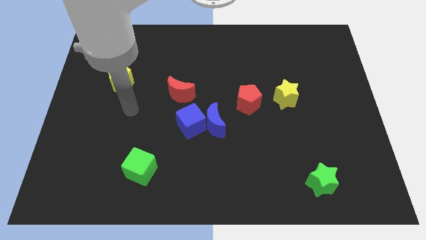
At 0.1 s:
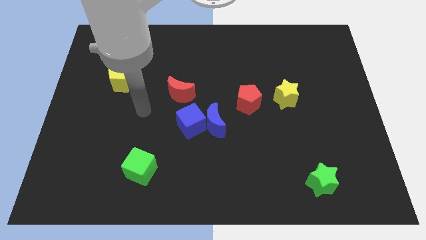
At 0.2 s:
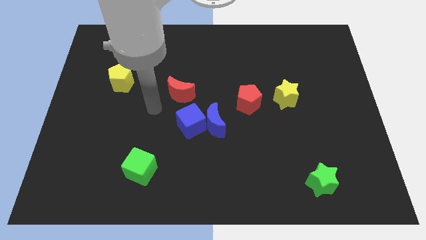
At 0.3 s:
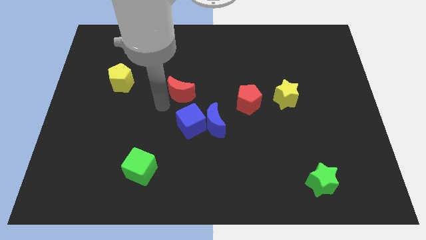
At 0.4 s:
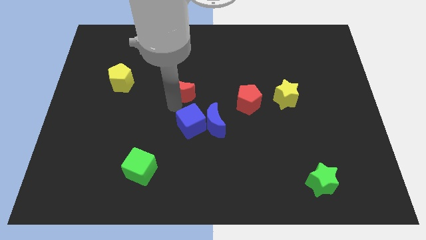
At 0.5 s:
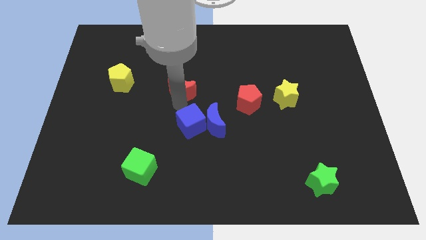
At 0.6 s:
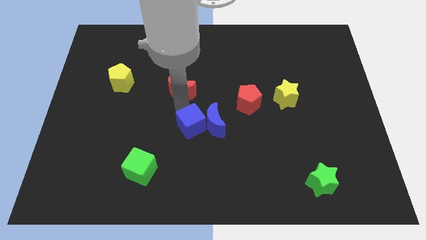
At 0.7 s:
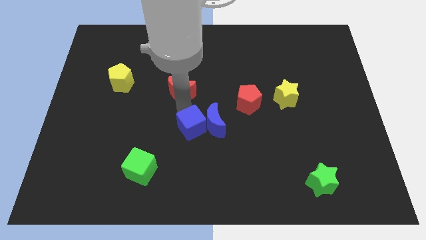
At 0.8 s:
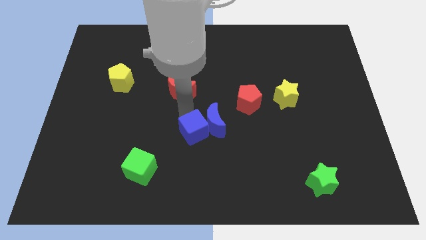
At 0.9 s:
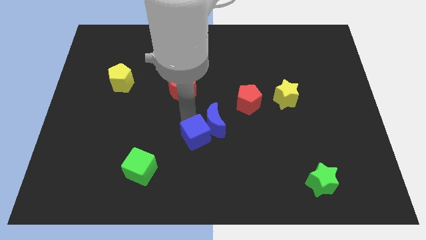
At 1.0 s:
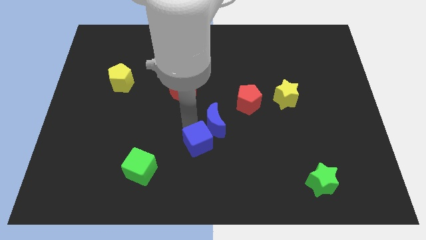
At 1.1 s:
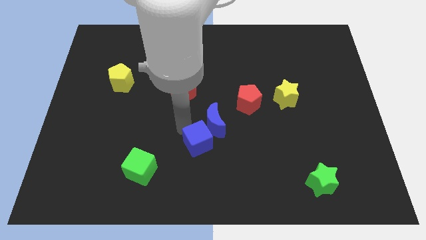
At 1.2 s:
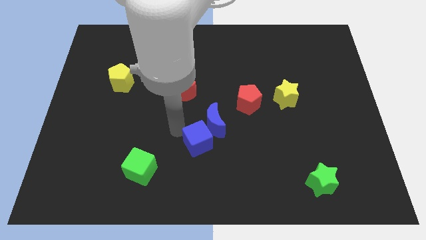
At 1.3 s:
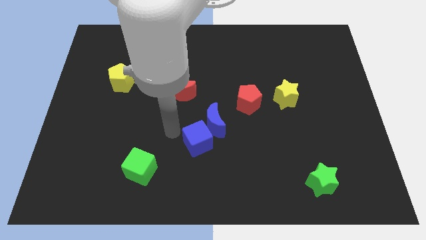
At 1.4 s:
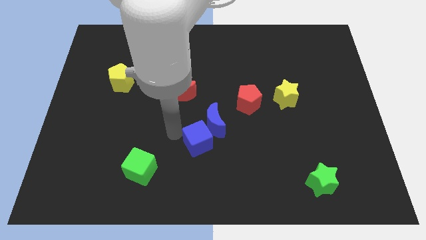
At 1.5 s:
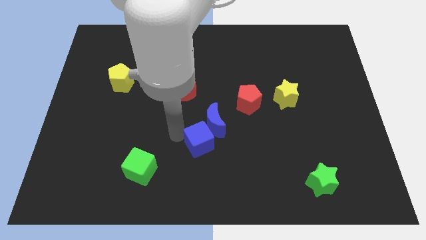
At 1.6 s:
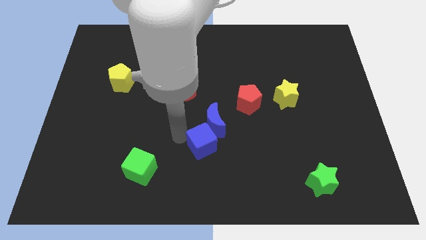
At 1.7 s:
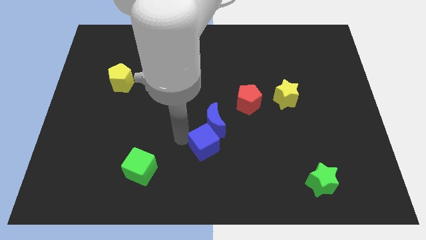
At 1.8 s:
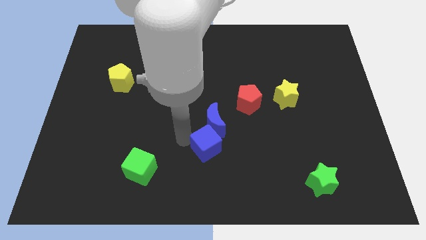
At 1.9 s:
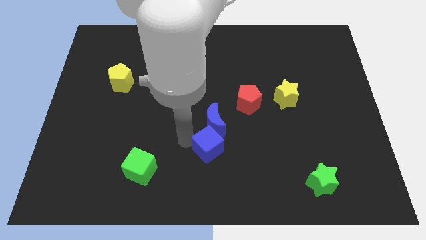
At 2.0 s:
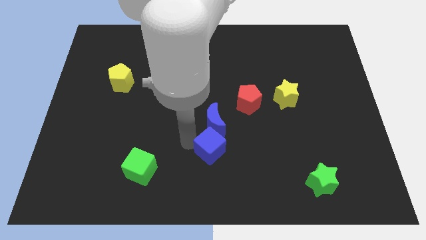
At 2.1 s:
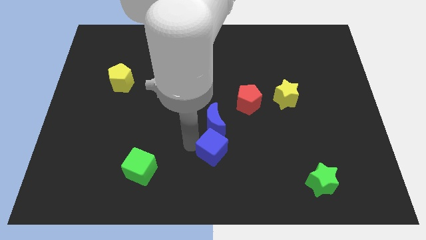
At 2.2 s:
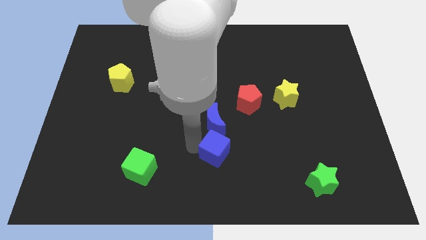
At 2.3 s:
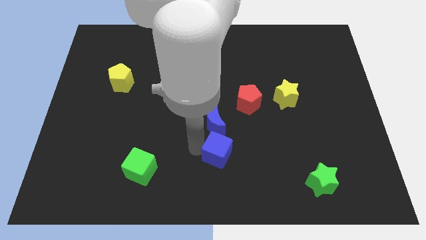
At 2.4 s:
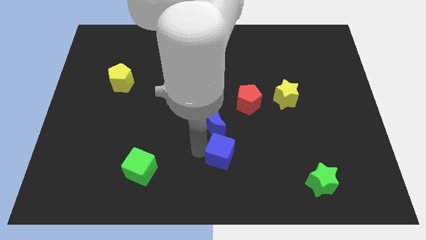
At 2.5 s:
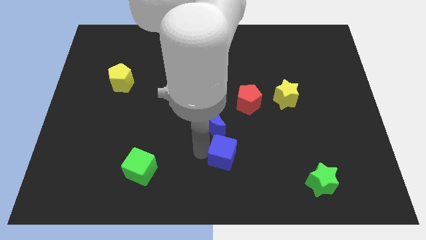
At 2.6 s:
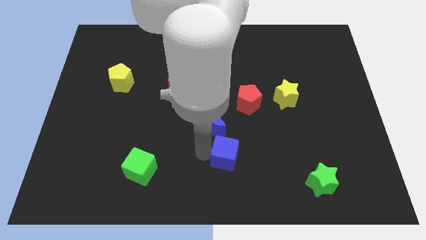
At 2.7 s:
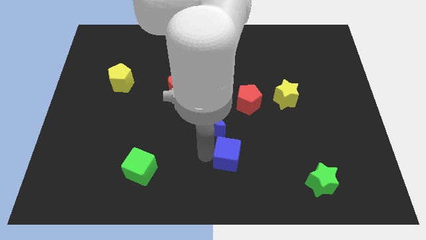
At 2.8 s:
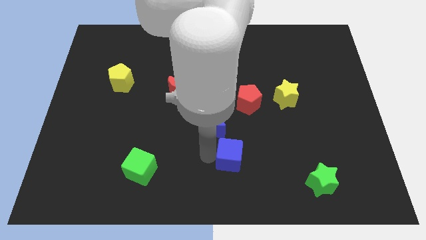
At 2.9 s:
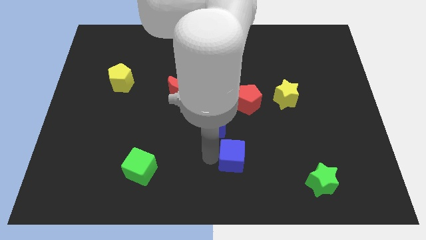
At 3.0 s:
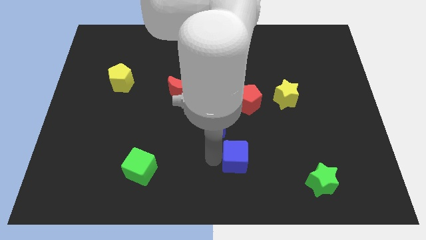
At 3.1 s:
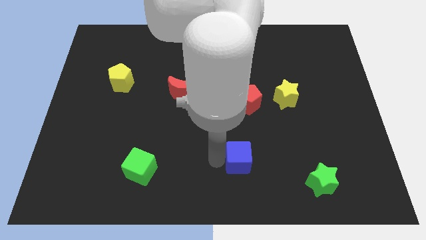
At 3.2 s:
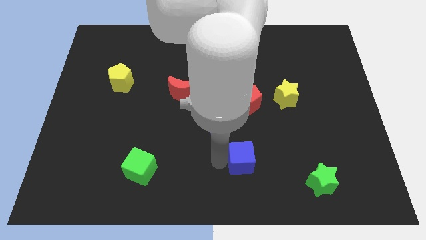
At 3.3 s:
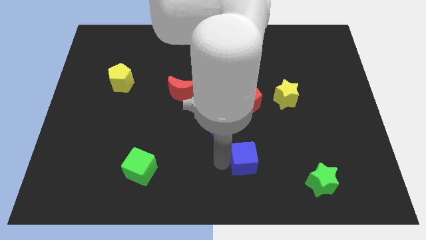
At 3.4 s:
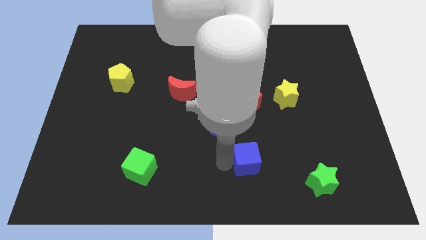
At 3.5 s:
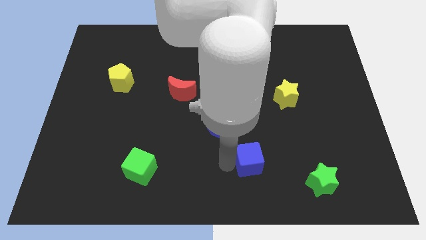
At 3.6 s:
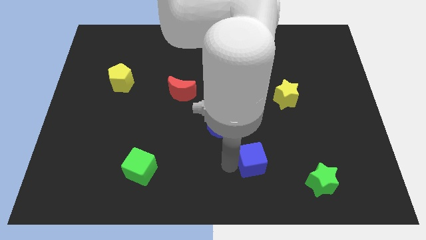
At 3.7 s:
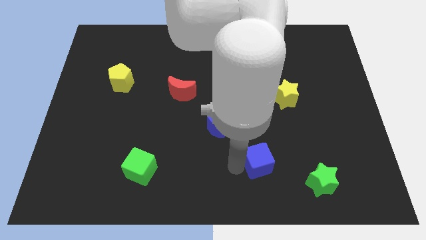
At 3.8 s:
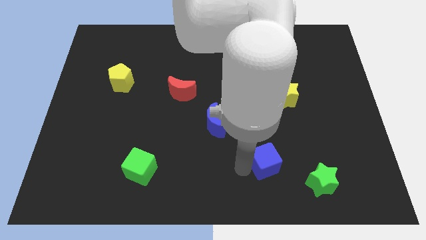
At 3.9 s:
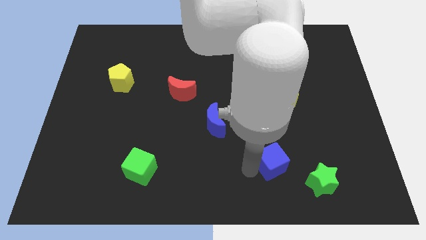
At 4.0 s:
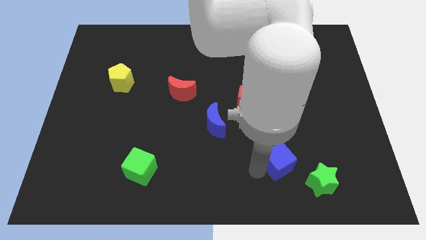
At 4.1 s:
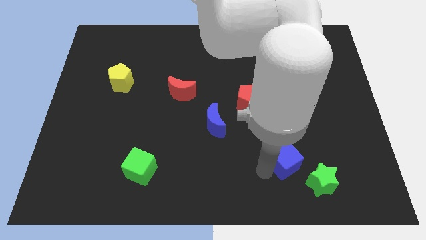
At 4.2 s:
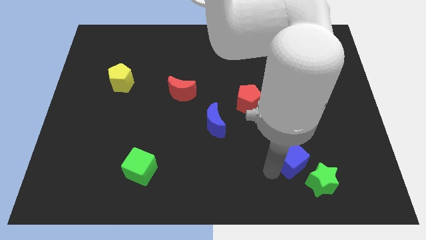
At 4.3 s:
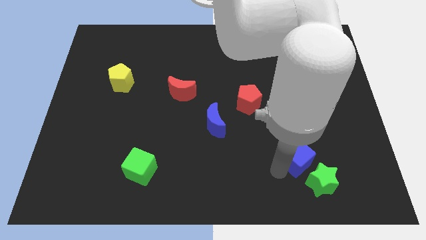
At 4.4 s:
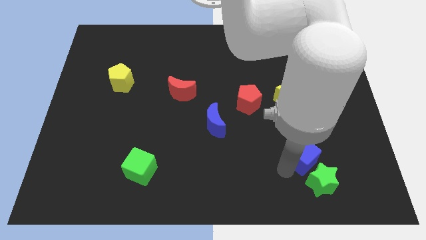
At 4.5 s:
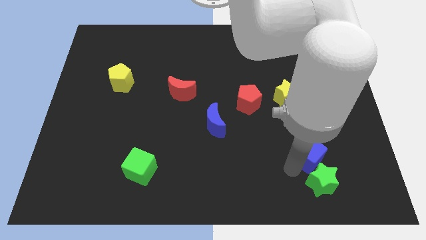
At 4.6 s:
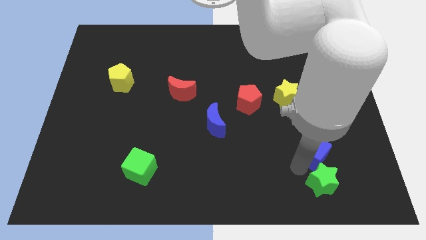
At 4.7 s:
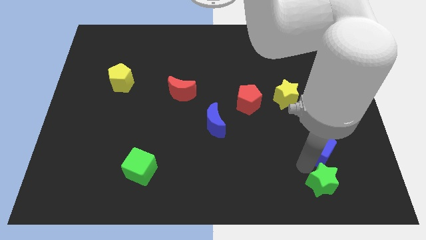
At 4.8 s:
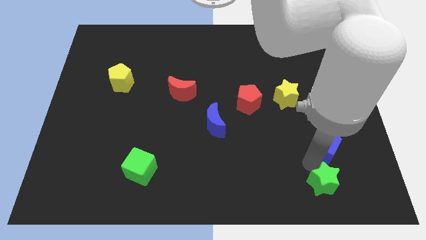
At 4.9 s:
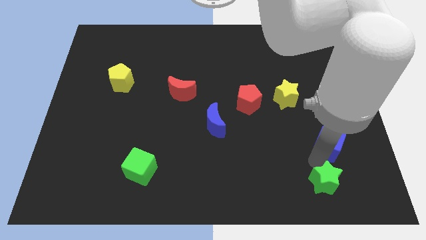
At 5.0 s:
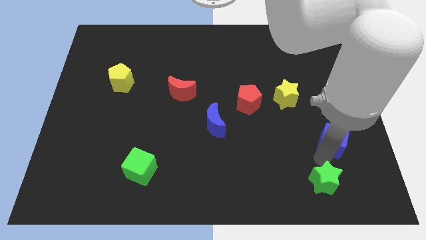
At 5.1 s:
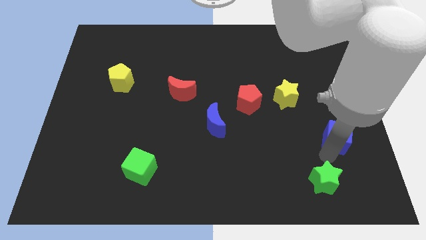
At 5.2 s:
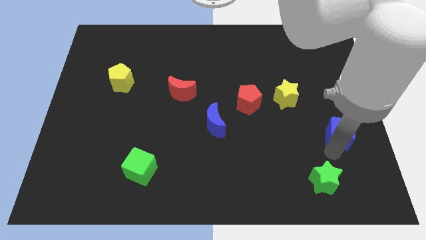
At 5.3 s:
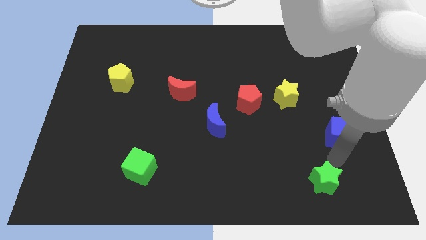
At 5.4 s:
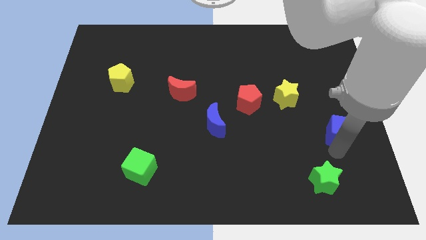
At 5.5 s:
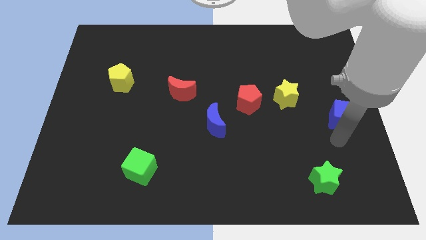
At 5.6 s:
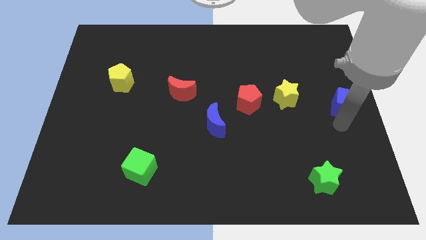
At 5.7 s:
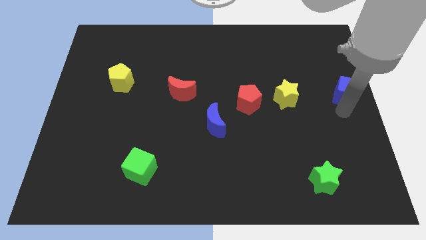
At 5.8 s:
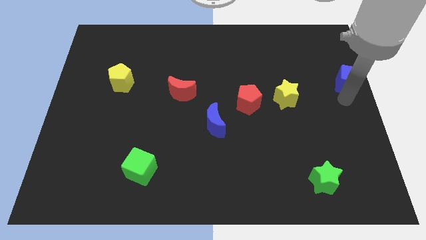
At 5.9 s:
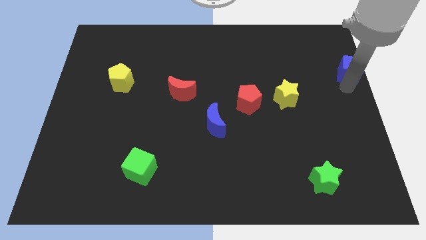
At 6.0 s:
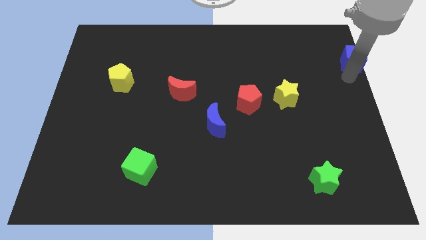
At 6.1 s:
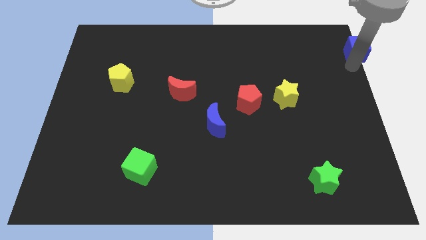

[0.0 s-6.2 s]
push the blue cube to the top right of the board
